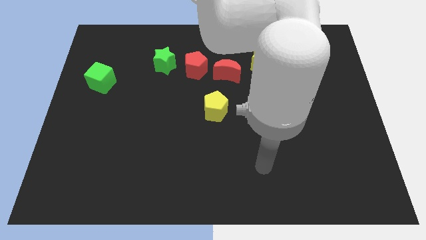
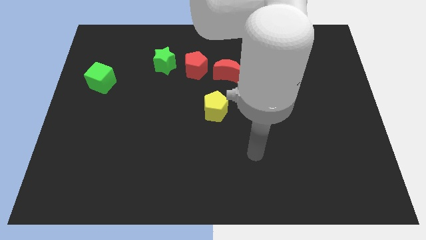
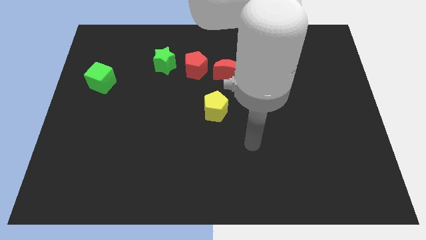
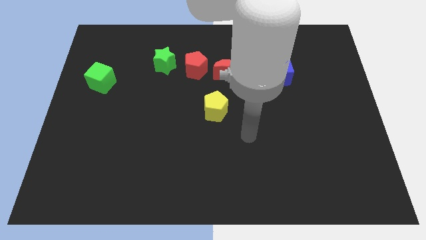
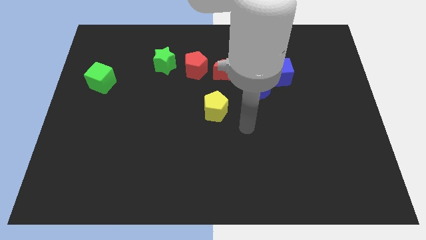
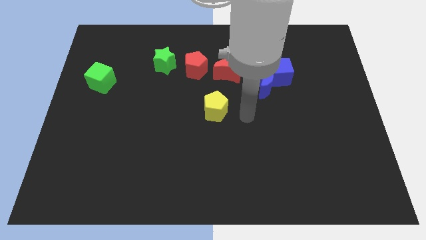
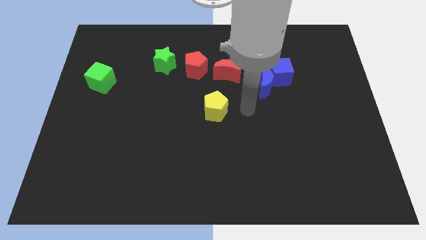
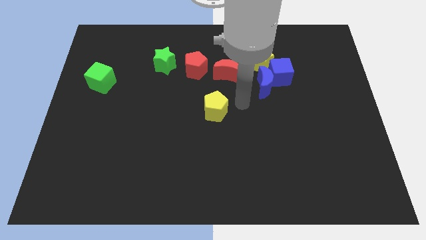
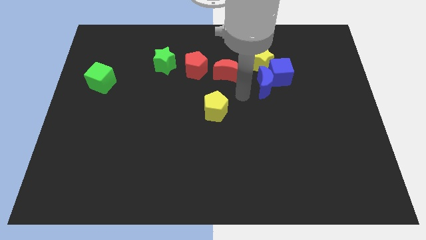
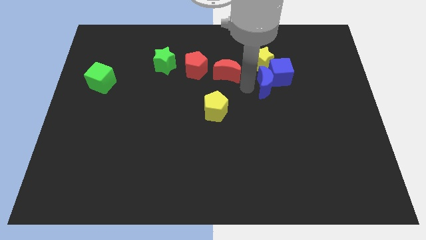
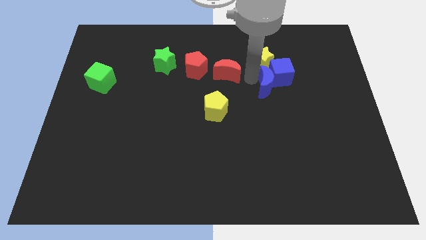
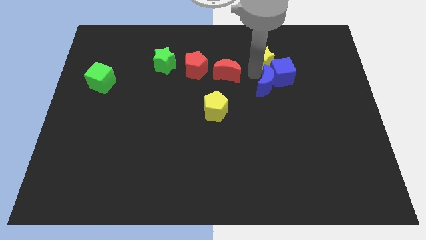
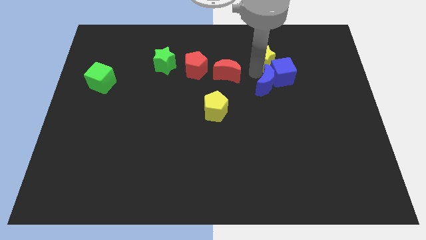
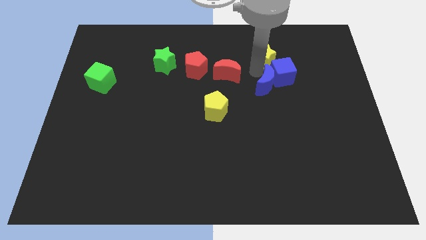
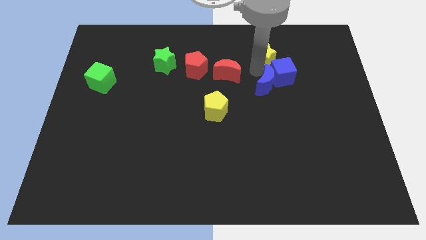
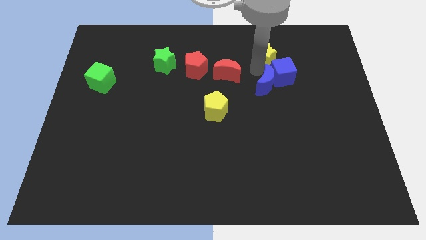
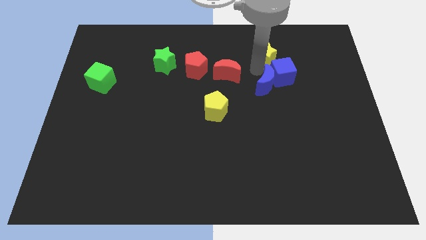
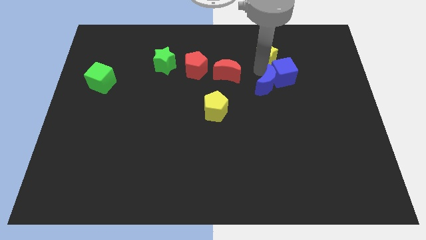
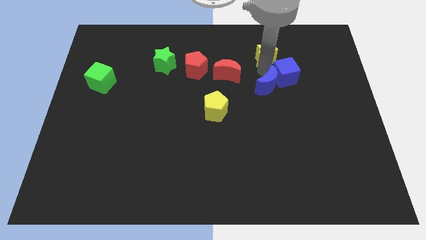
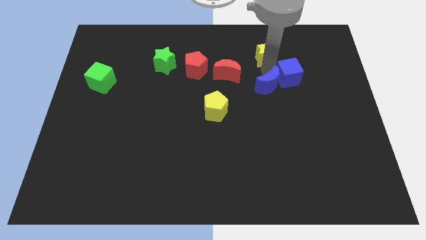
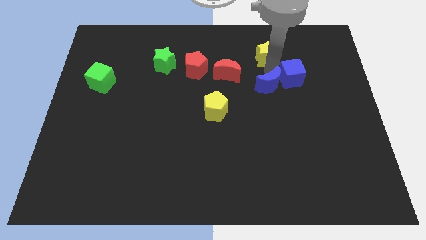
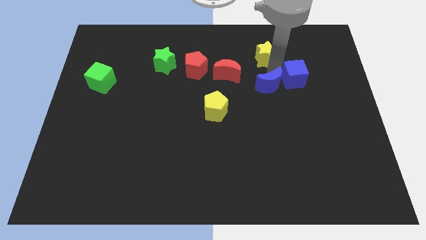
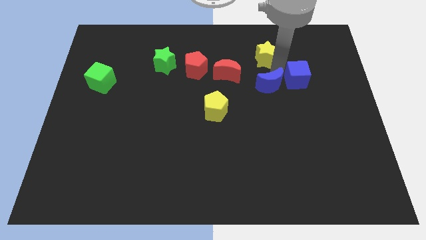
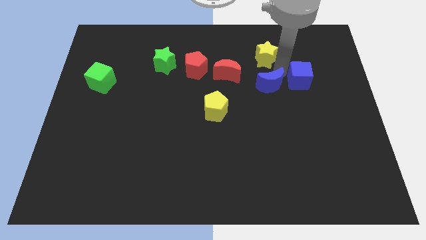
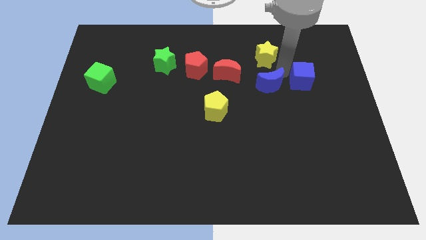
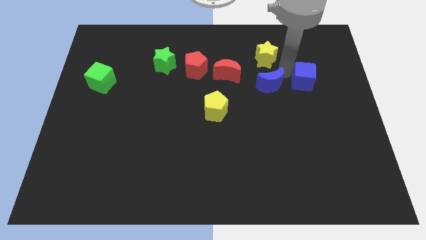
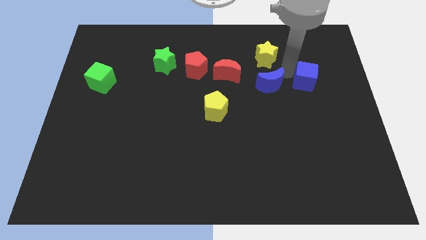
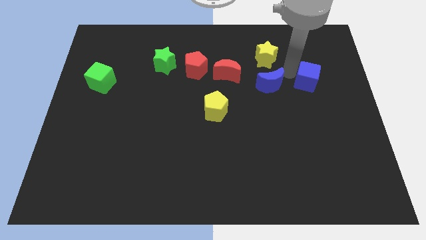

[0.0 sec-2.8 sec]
move the blue cube away from the blue moon and yellow star

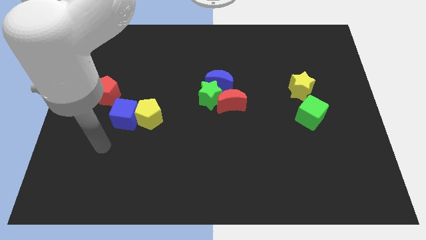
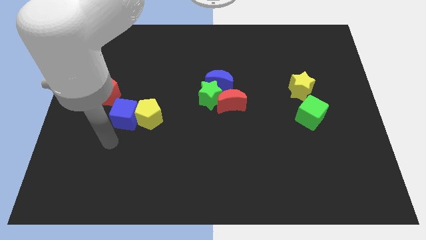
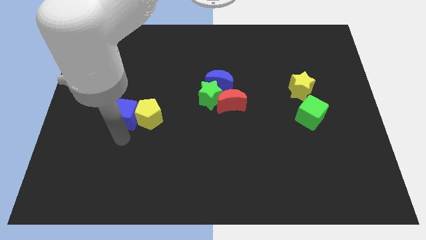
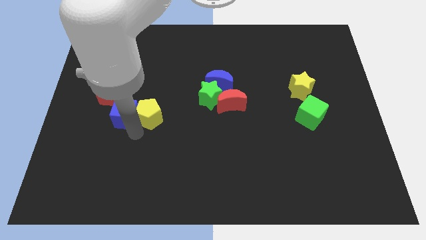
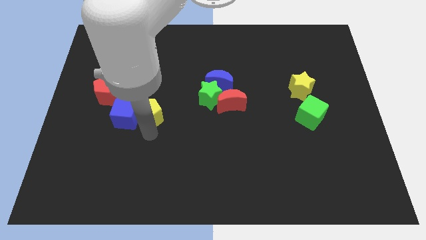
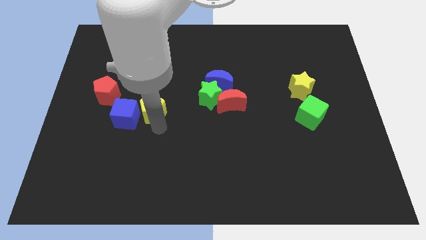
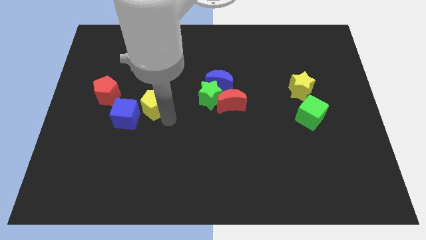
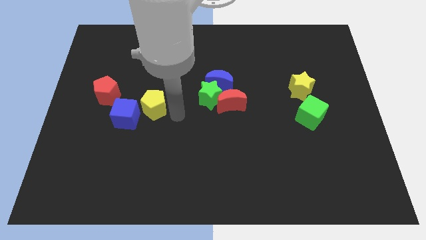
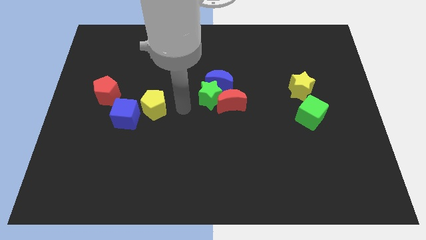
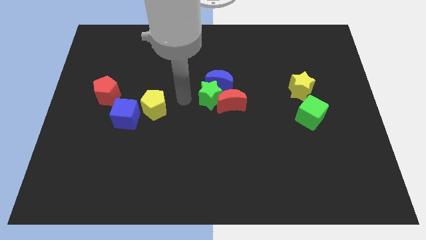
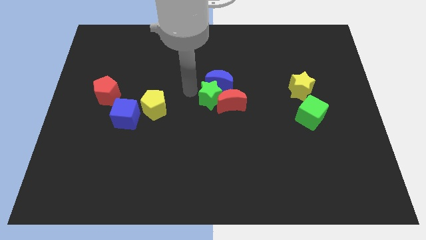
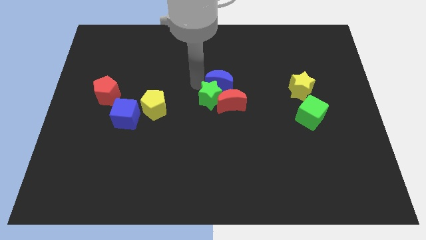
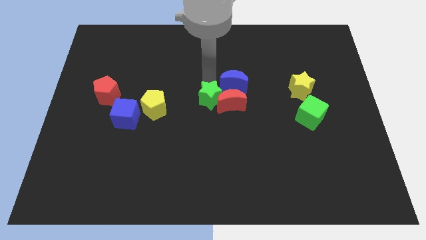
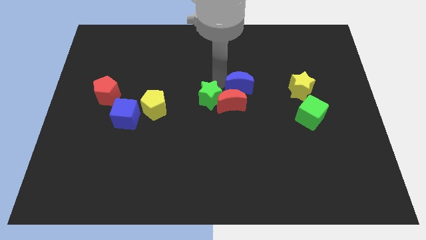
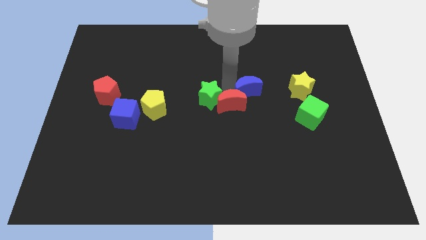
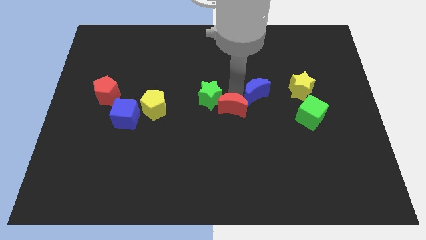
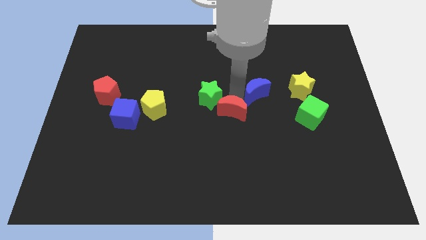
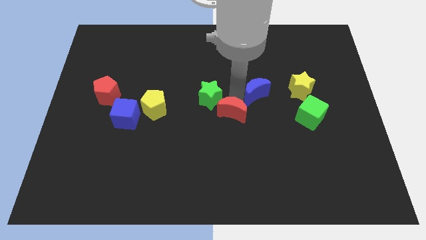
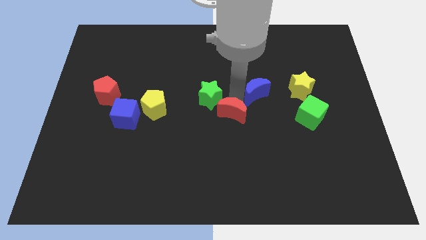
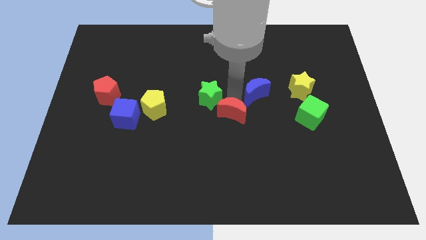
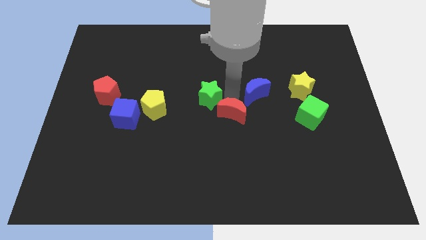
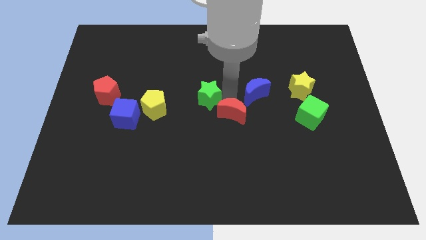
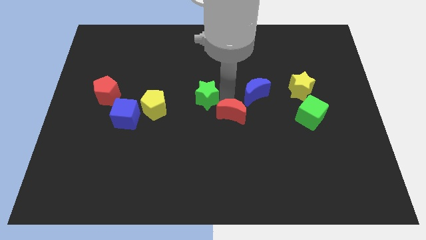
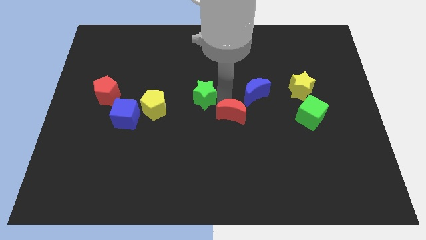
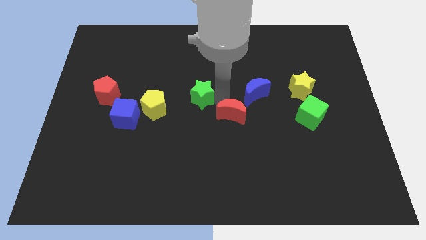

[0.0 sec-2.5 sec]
pull the green star apart from the blue moon and red moon

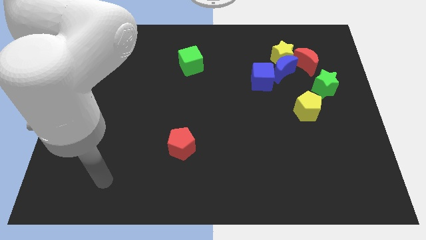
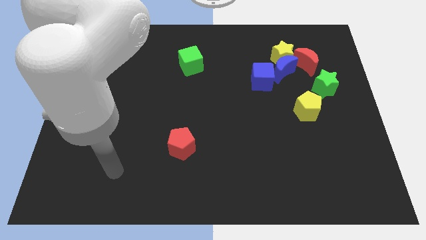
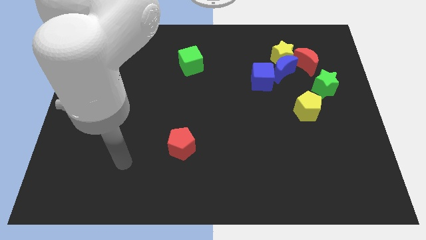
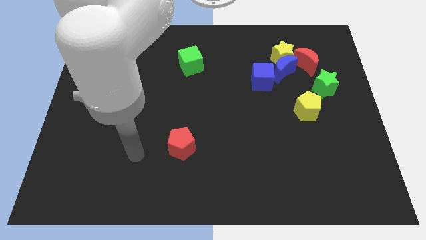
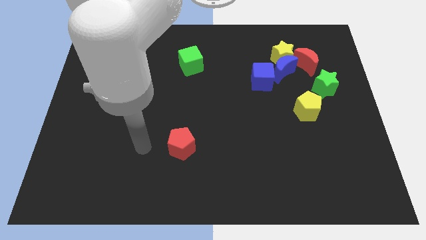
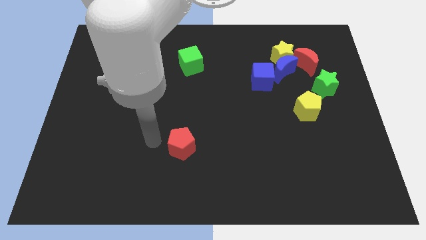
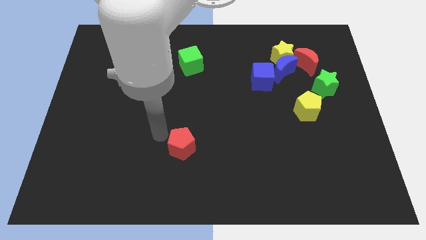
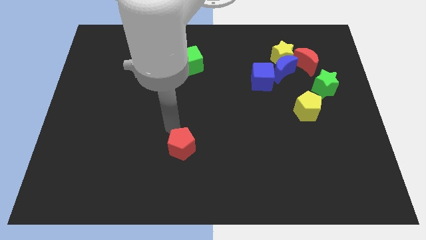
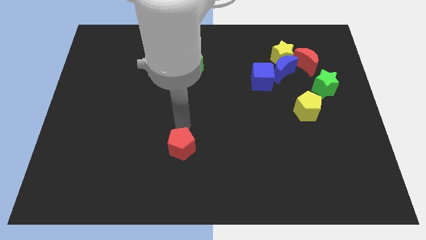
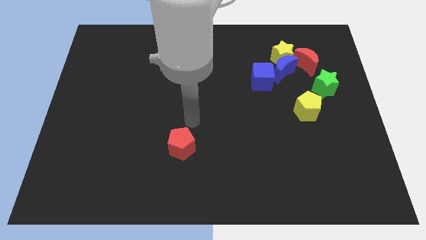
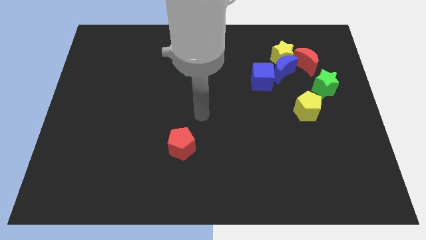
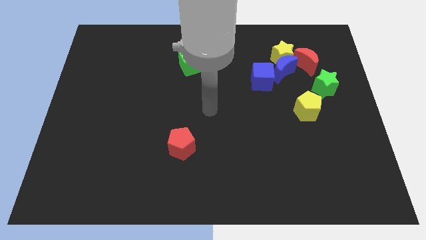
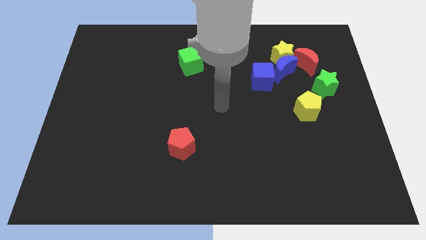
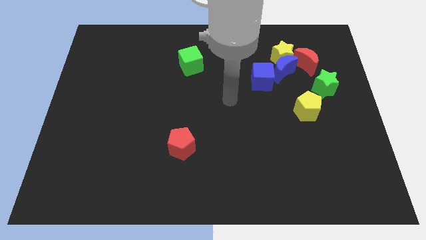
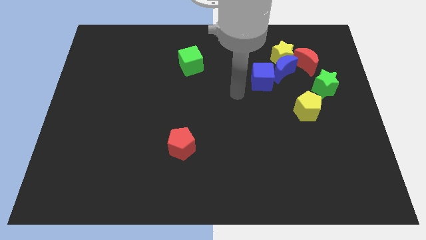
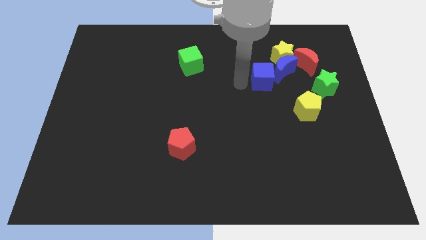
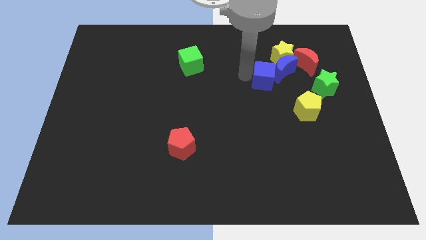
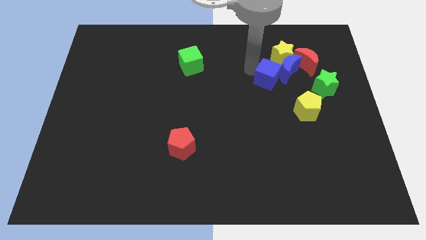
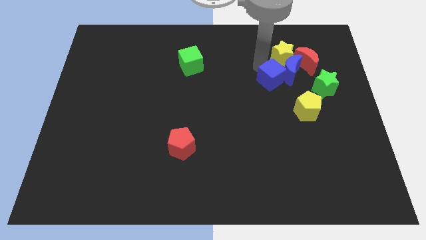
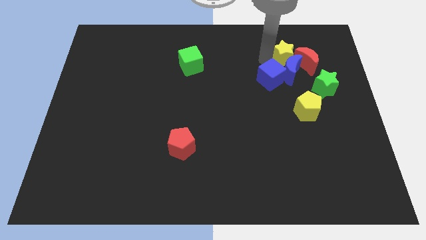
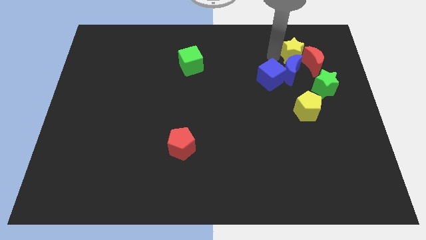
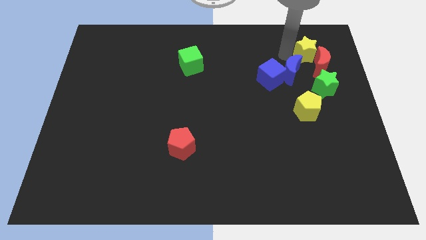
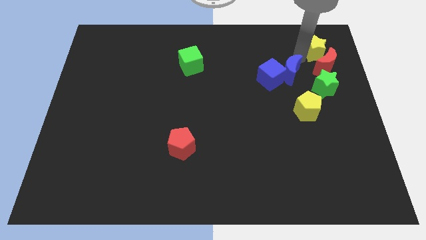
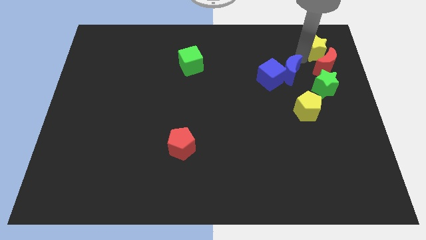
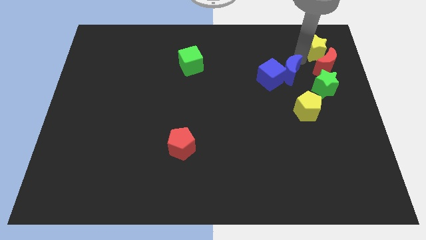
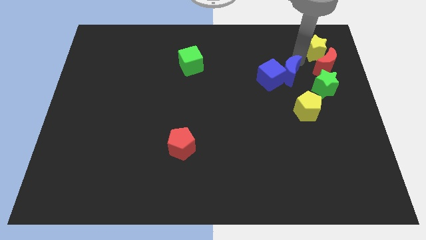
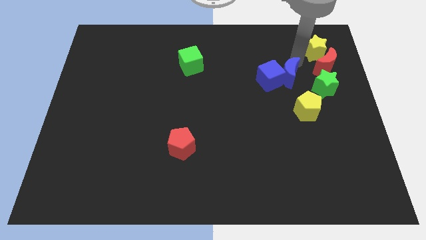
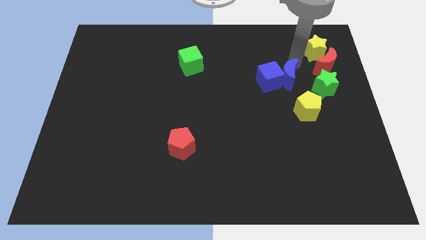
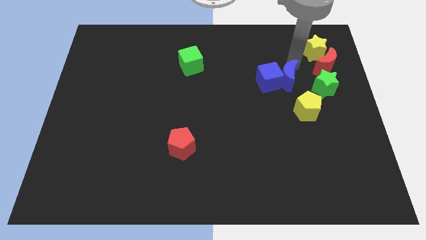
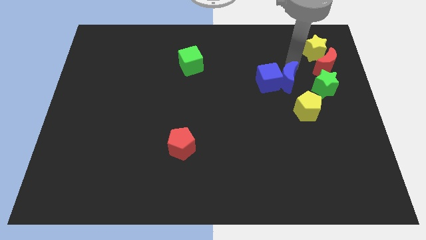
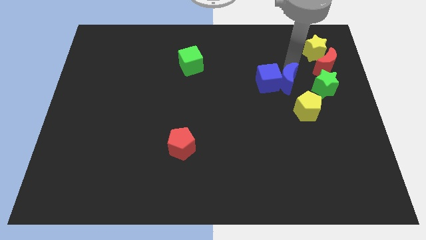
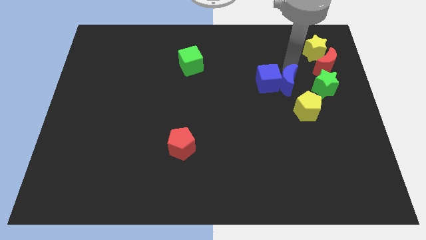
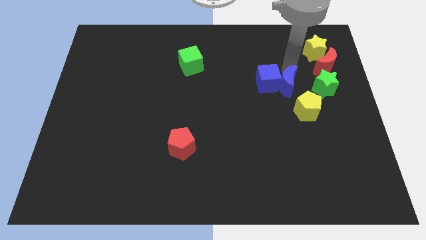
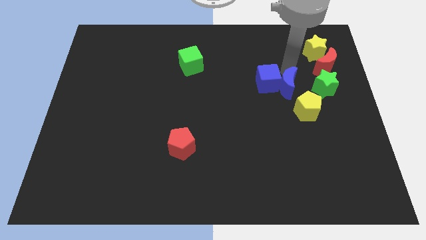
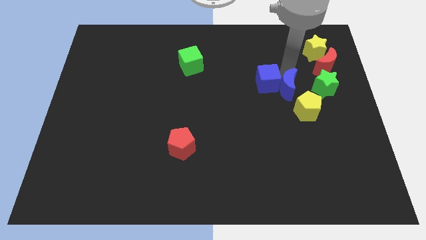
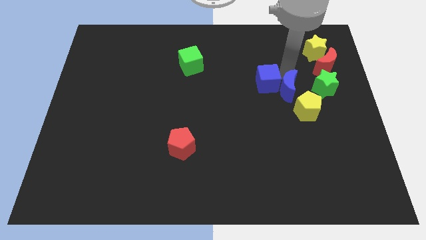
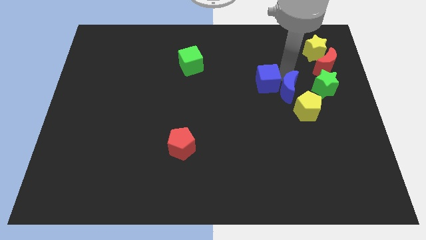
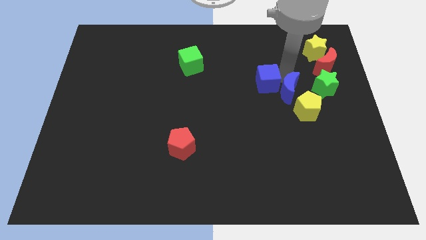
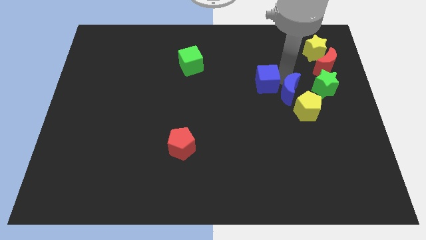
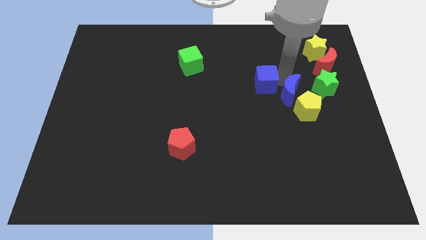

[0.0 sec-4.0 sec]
separate the blue moon from the yellow star, blue cube, and red moon
